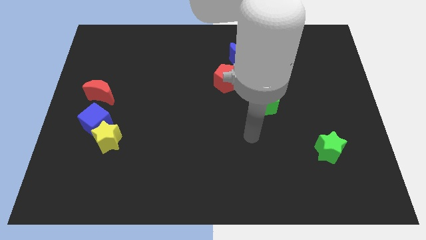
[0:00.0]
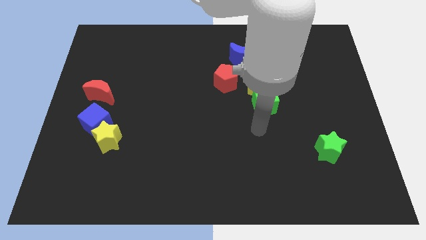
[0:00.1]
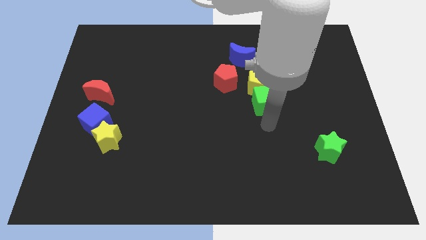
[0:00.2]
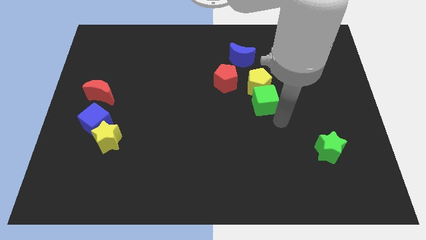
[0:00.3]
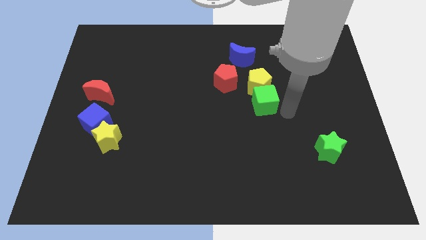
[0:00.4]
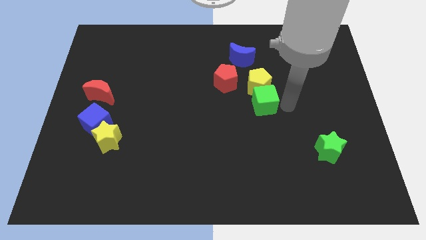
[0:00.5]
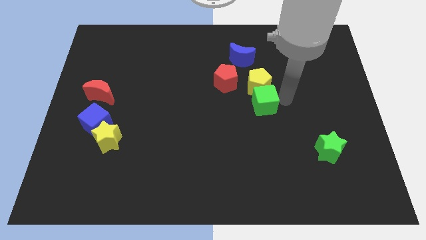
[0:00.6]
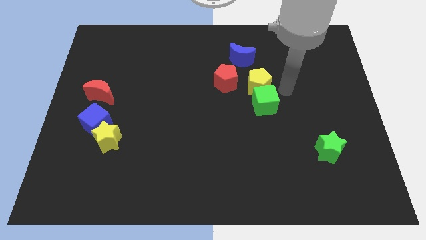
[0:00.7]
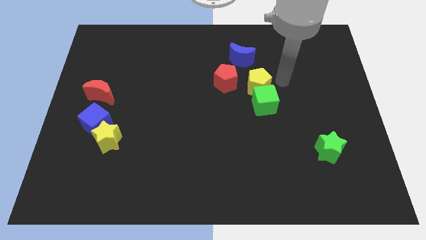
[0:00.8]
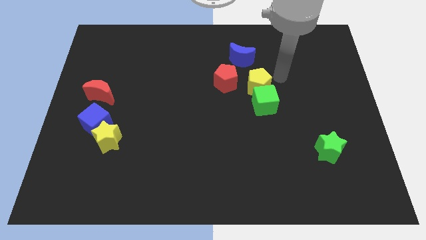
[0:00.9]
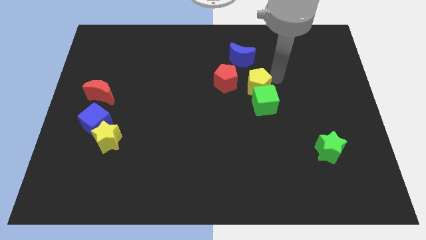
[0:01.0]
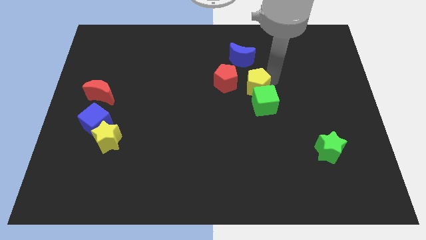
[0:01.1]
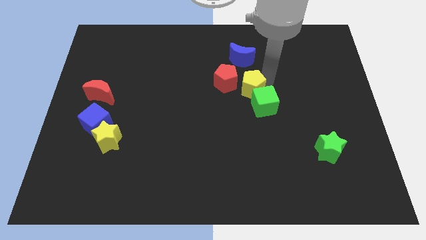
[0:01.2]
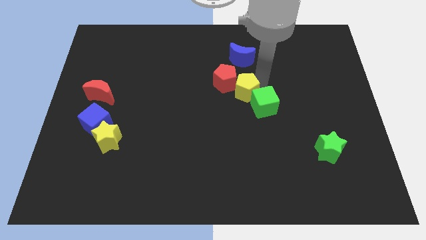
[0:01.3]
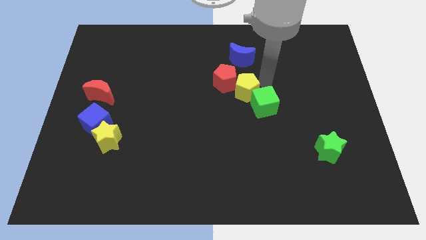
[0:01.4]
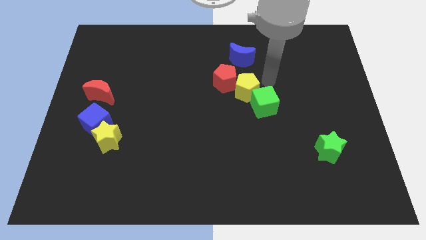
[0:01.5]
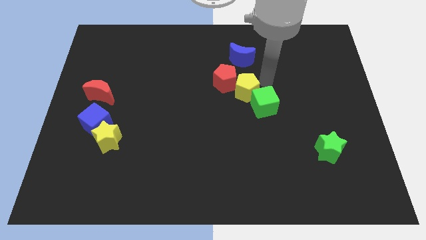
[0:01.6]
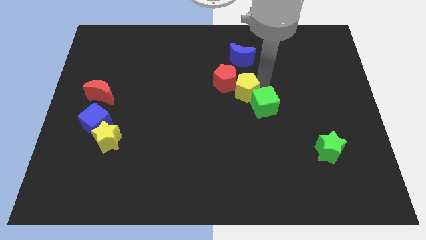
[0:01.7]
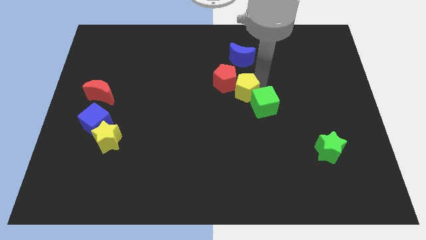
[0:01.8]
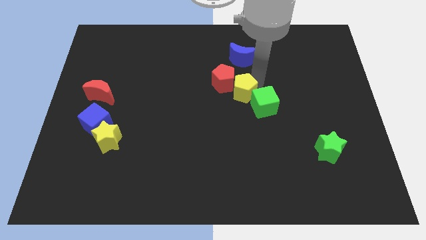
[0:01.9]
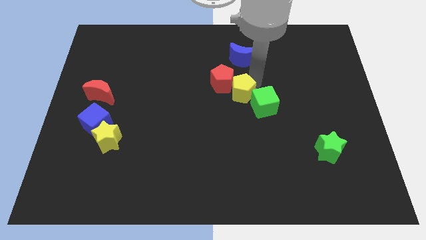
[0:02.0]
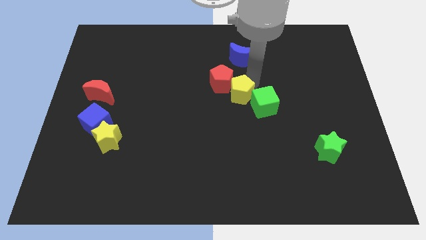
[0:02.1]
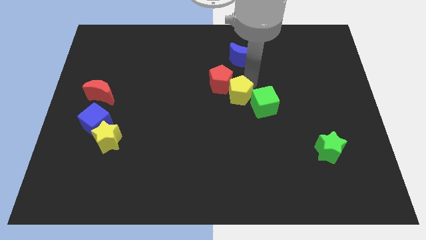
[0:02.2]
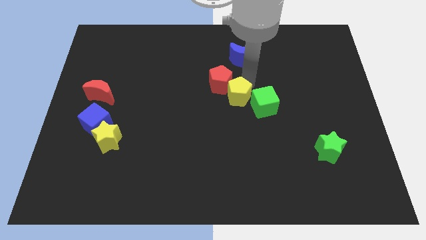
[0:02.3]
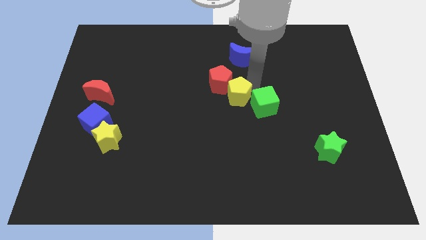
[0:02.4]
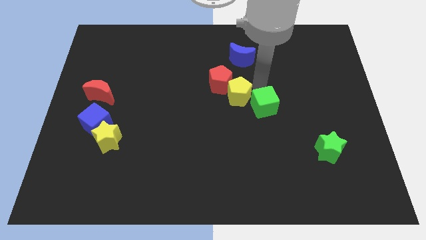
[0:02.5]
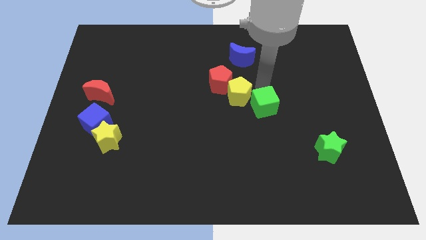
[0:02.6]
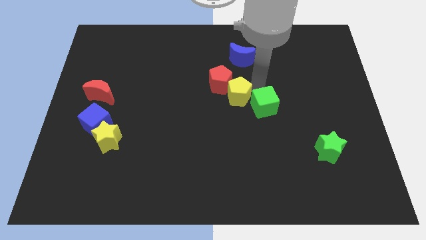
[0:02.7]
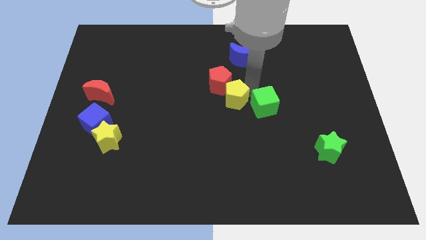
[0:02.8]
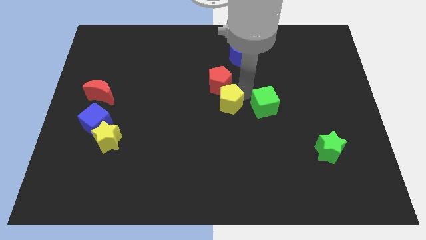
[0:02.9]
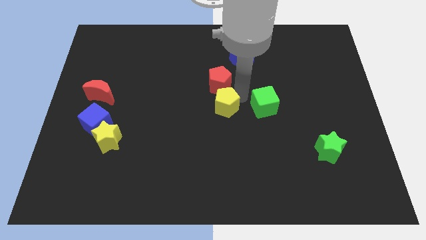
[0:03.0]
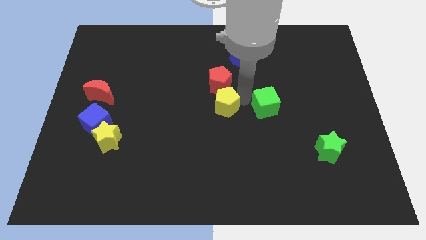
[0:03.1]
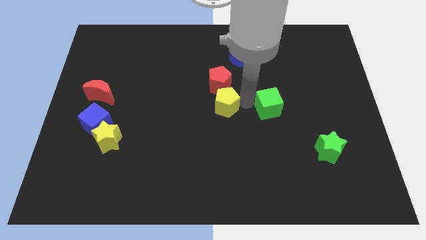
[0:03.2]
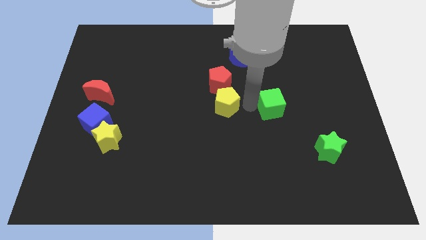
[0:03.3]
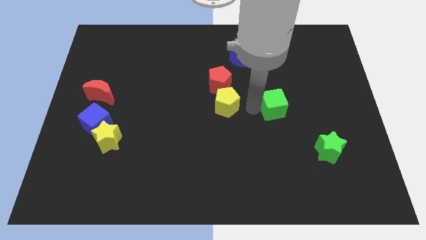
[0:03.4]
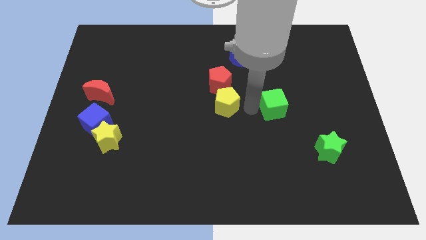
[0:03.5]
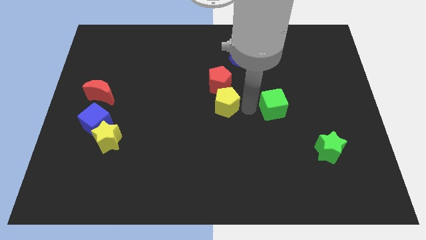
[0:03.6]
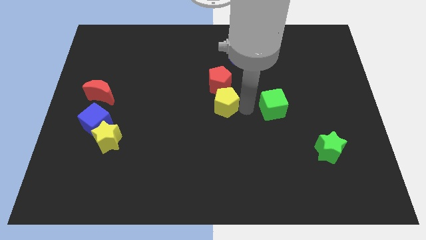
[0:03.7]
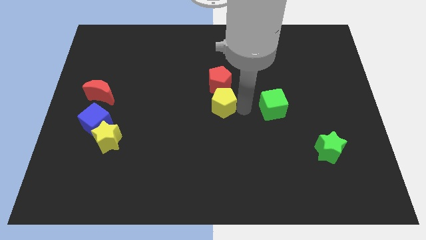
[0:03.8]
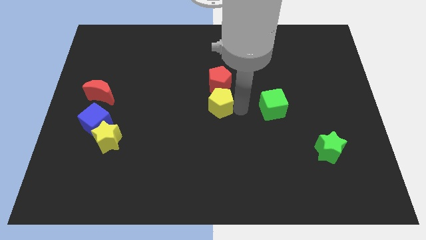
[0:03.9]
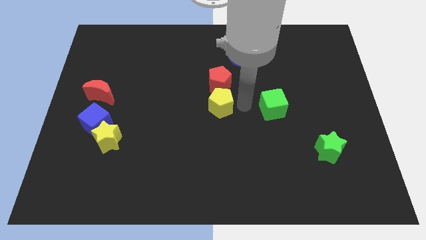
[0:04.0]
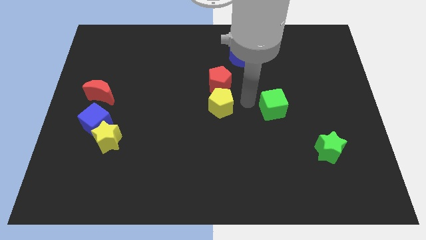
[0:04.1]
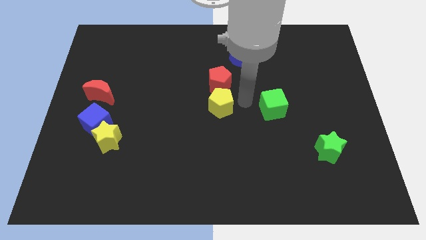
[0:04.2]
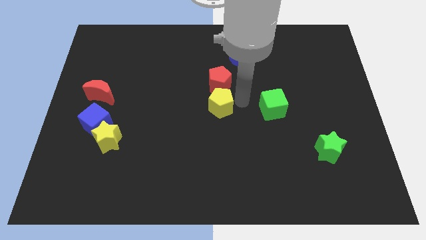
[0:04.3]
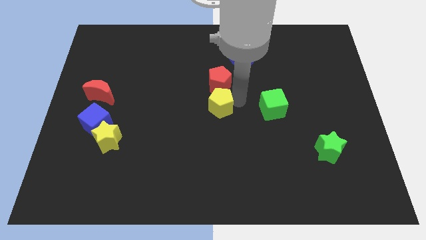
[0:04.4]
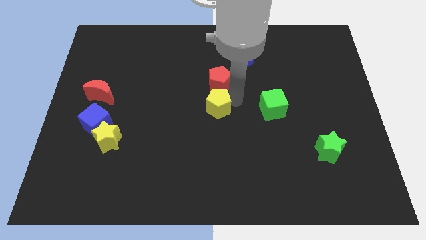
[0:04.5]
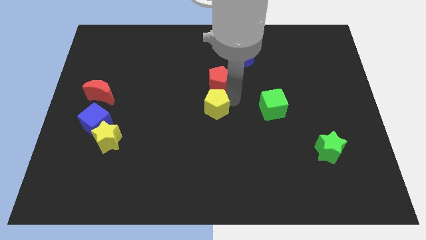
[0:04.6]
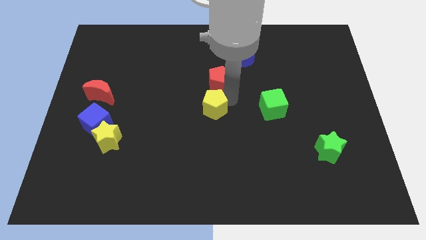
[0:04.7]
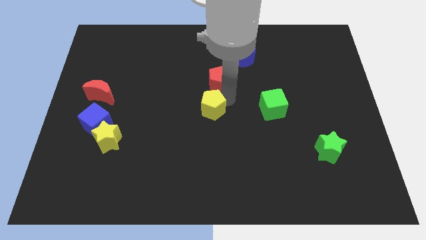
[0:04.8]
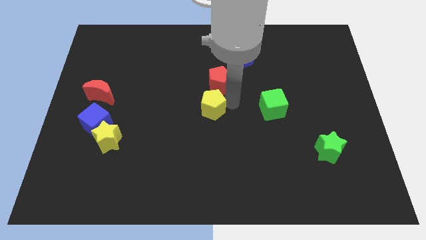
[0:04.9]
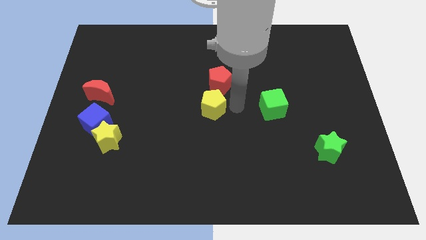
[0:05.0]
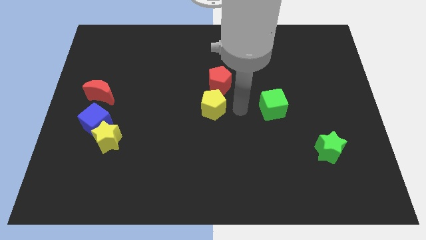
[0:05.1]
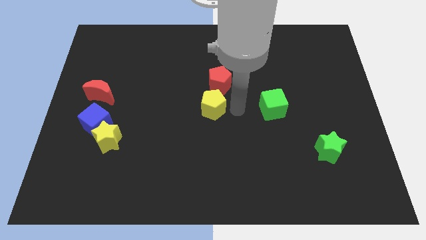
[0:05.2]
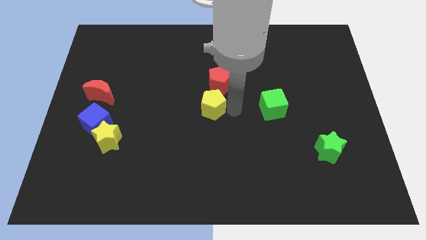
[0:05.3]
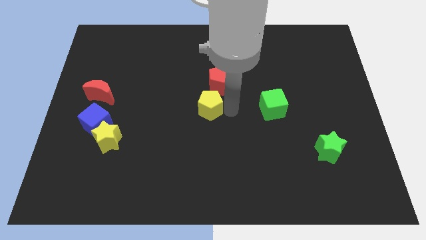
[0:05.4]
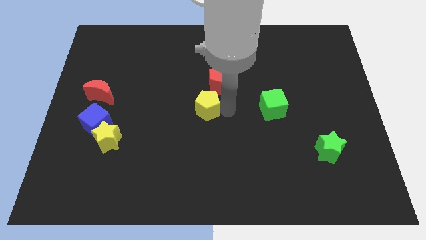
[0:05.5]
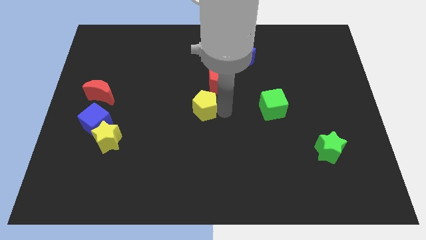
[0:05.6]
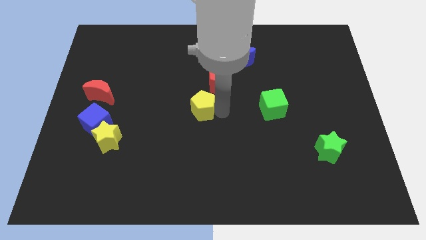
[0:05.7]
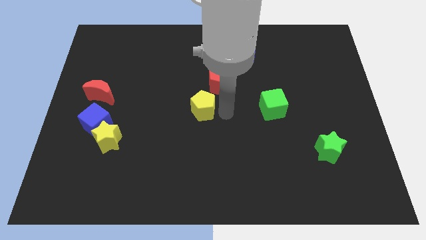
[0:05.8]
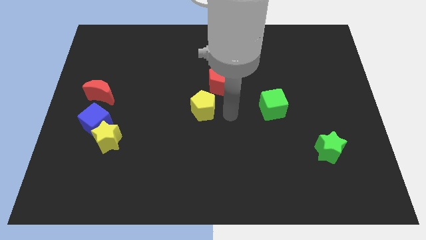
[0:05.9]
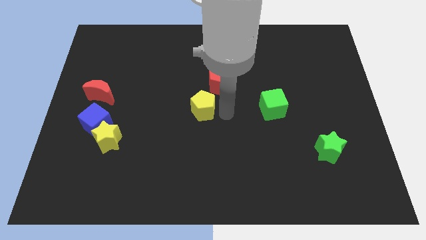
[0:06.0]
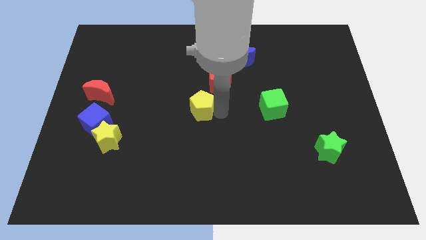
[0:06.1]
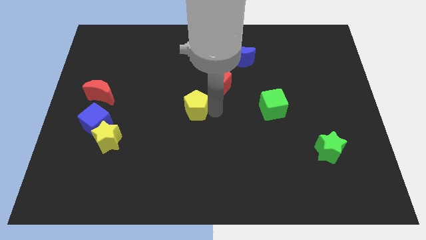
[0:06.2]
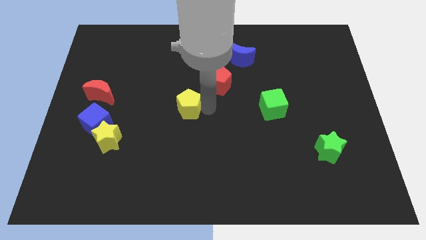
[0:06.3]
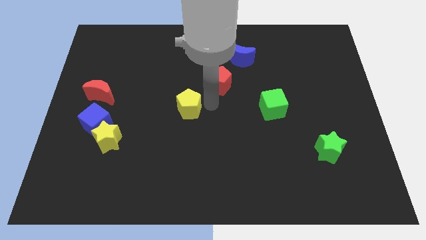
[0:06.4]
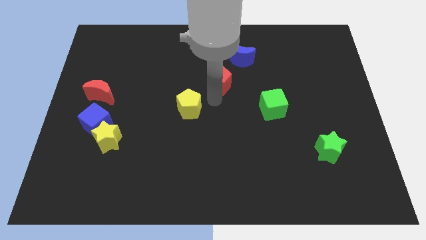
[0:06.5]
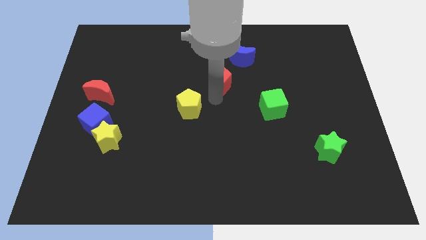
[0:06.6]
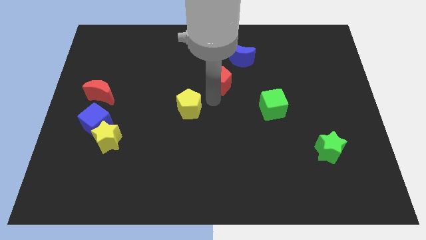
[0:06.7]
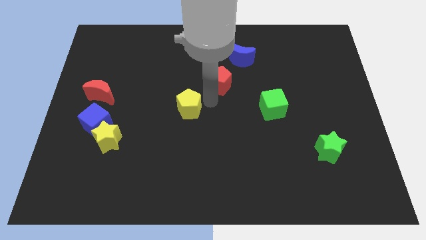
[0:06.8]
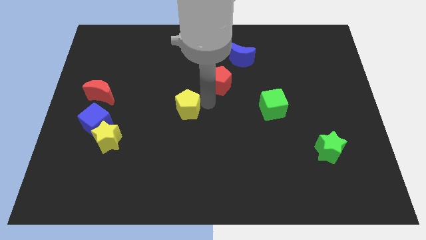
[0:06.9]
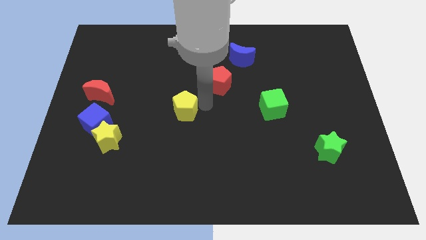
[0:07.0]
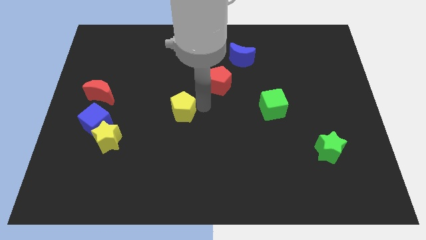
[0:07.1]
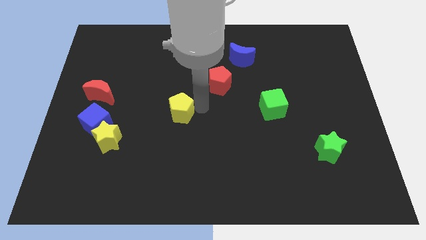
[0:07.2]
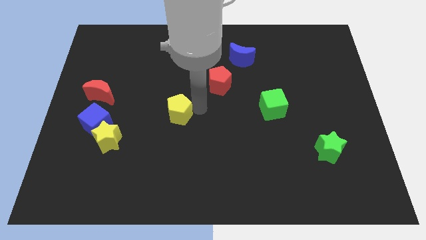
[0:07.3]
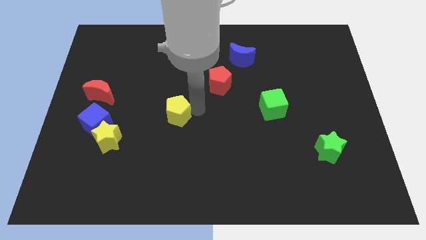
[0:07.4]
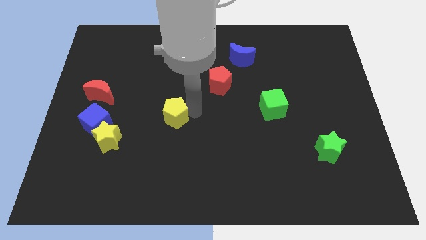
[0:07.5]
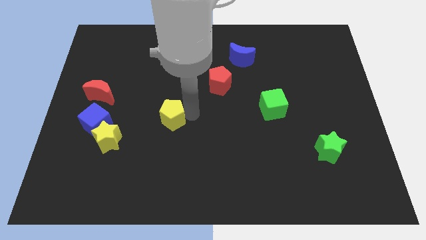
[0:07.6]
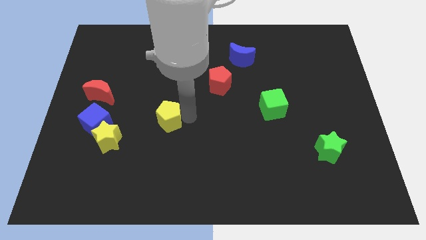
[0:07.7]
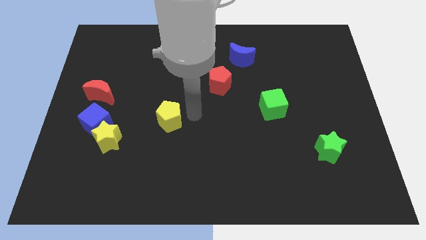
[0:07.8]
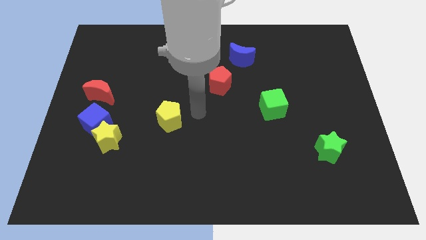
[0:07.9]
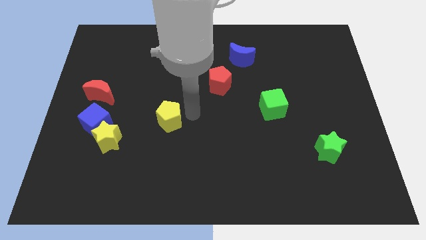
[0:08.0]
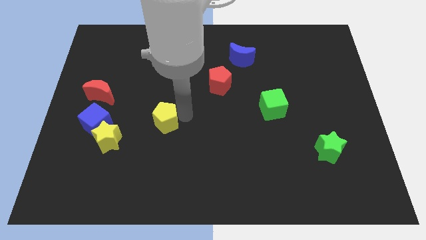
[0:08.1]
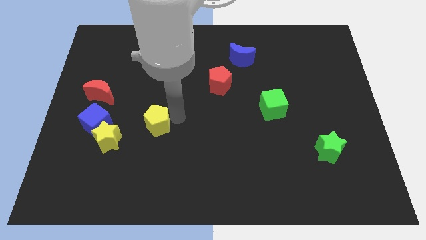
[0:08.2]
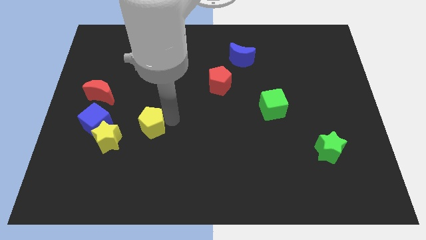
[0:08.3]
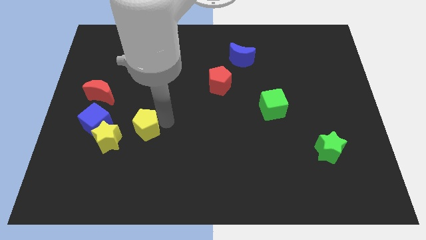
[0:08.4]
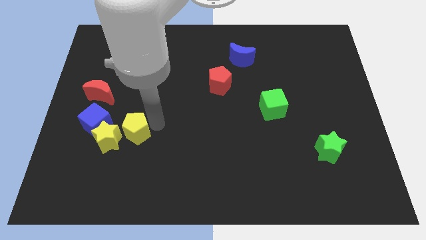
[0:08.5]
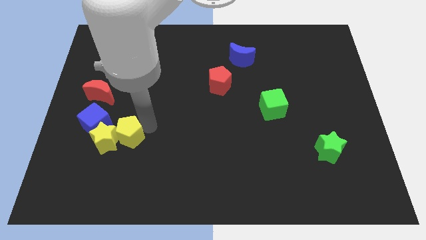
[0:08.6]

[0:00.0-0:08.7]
push the yellow pentagon next to the yellow star
